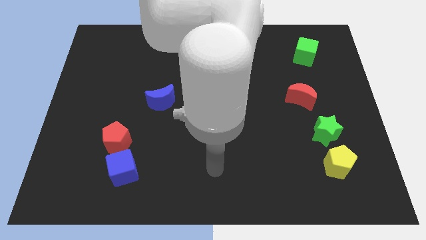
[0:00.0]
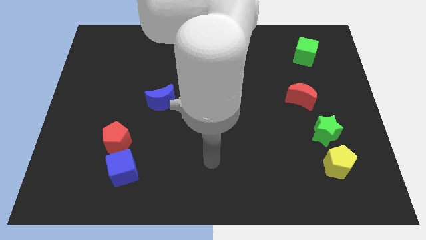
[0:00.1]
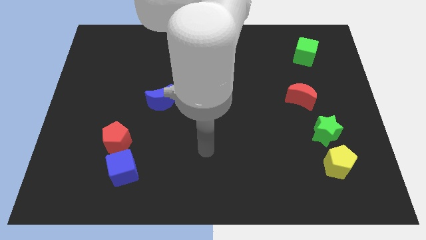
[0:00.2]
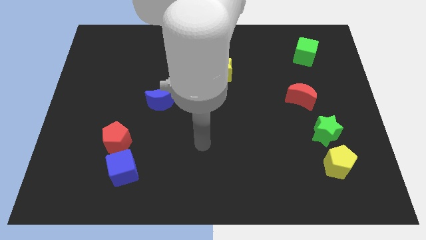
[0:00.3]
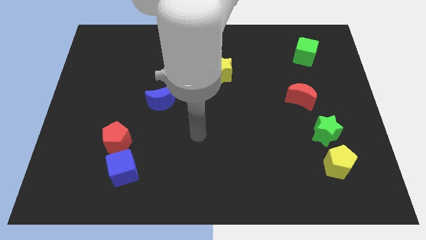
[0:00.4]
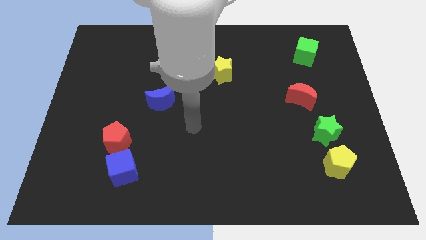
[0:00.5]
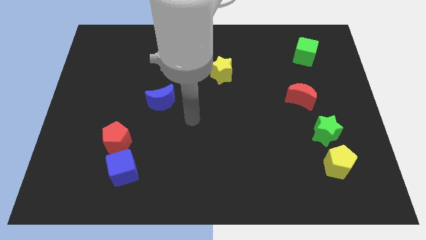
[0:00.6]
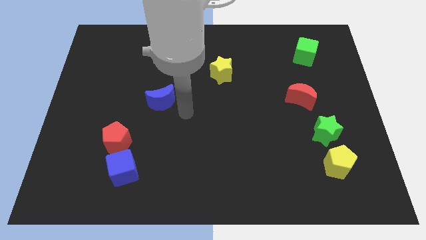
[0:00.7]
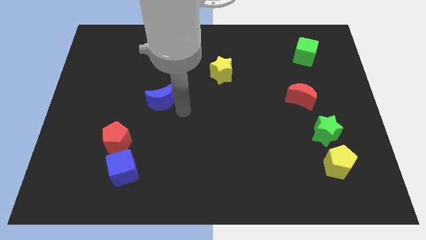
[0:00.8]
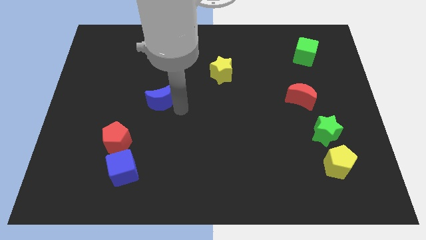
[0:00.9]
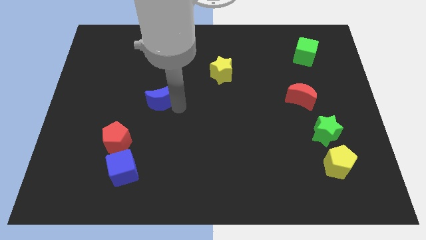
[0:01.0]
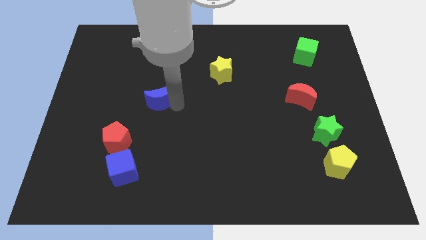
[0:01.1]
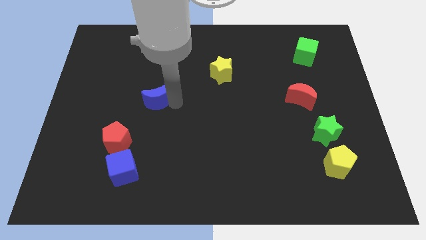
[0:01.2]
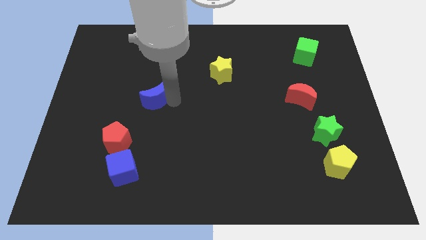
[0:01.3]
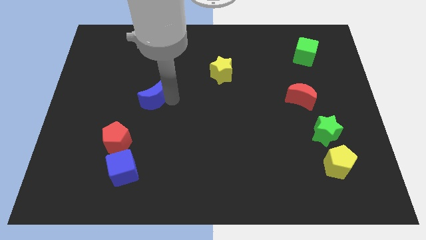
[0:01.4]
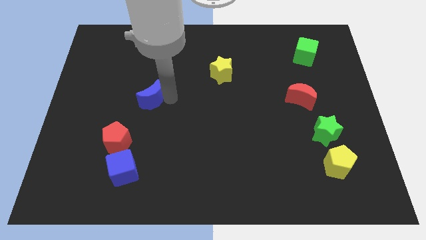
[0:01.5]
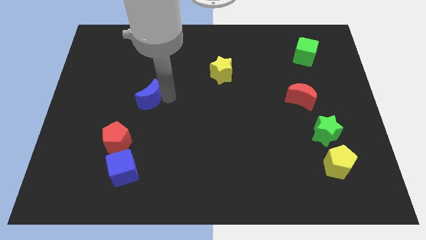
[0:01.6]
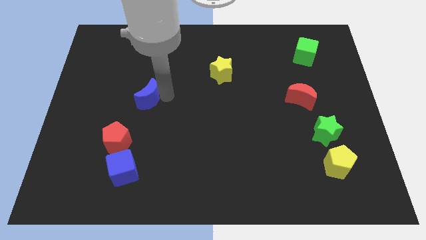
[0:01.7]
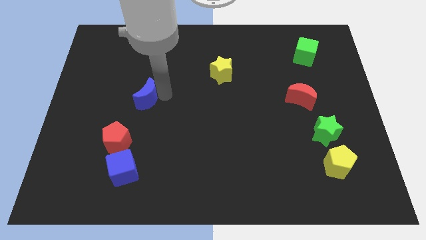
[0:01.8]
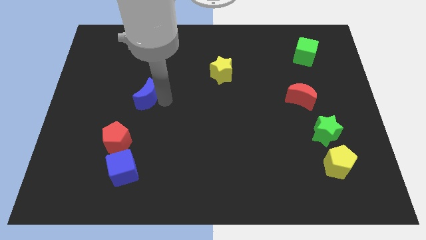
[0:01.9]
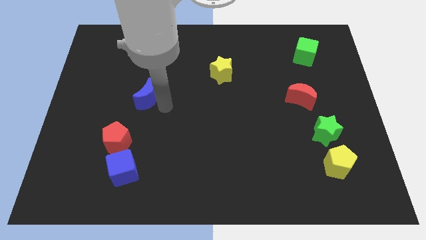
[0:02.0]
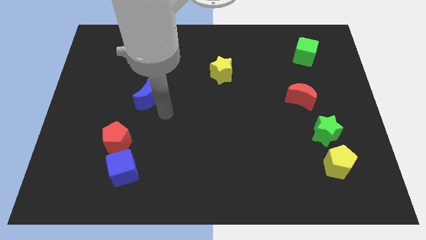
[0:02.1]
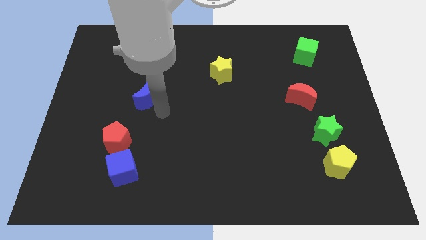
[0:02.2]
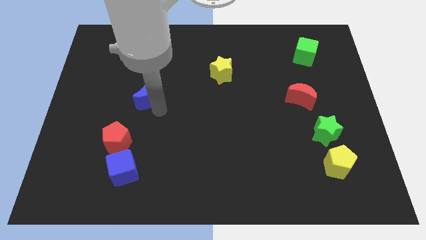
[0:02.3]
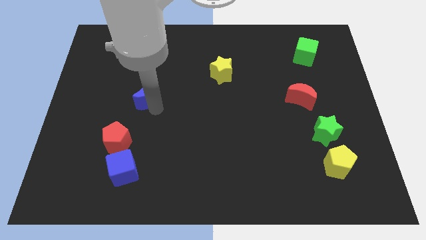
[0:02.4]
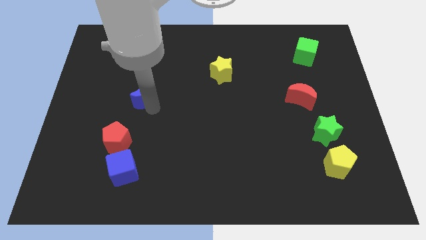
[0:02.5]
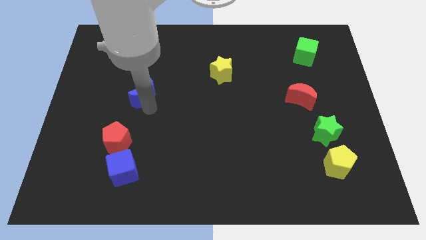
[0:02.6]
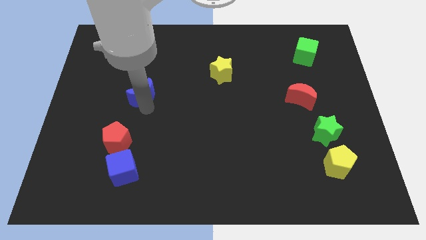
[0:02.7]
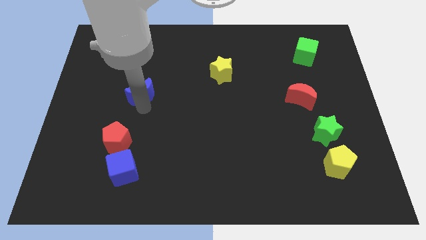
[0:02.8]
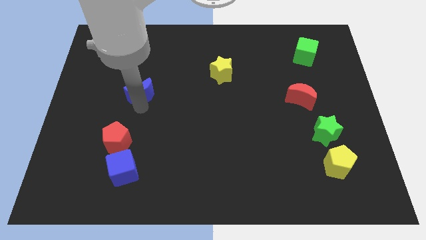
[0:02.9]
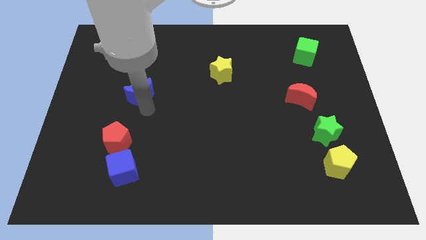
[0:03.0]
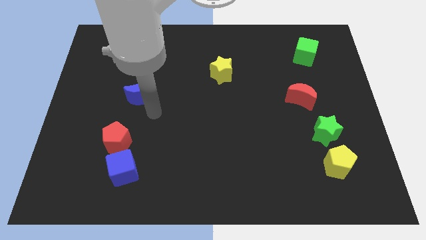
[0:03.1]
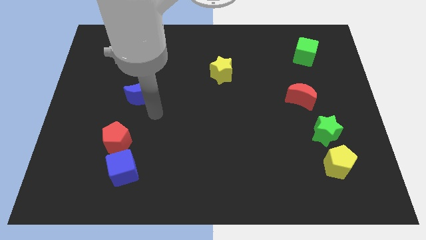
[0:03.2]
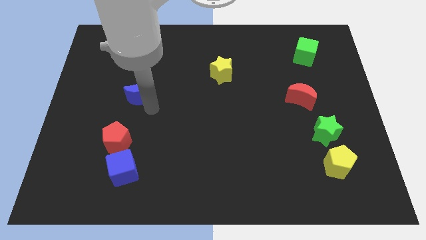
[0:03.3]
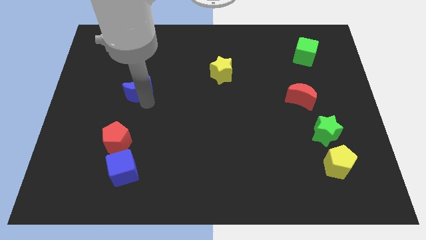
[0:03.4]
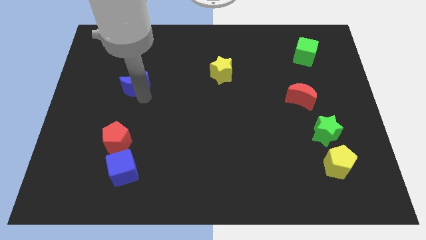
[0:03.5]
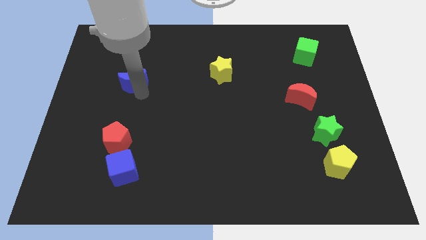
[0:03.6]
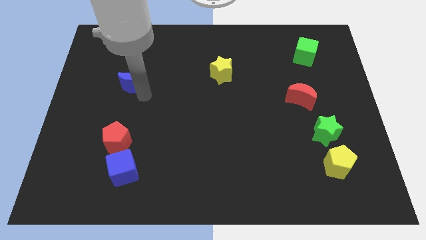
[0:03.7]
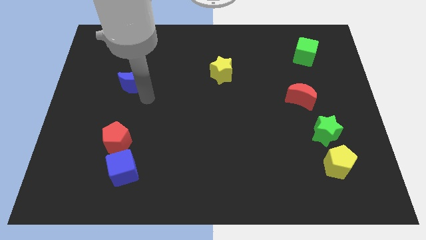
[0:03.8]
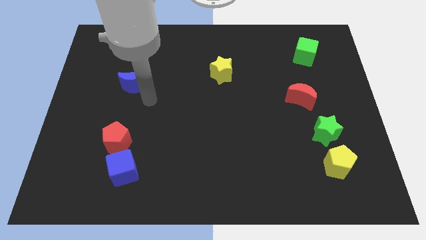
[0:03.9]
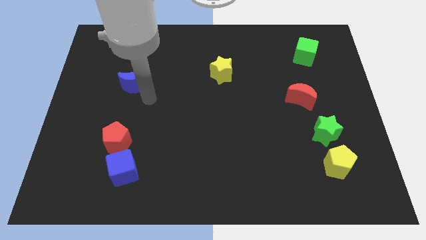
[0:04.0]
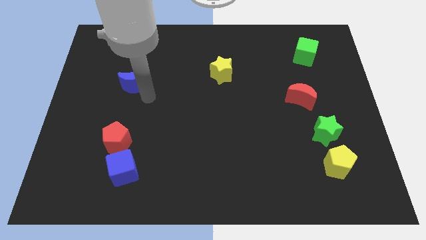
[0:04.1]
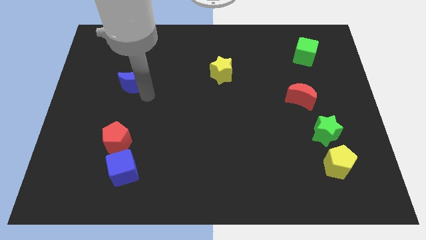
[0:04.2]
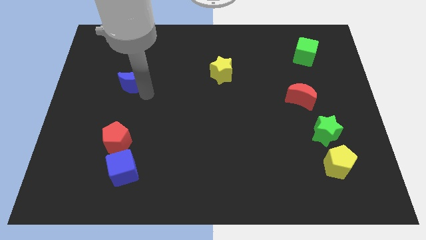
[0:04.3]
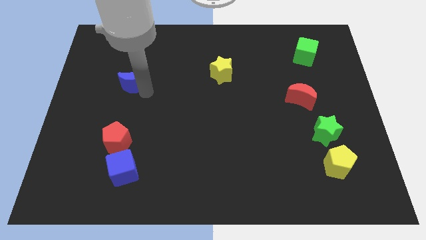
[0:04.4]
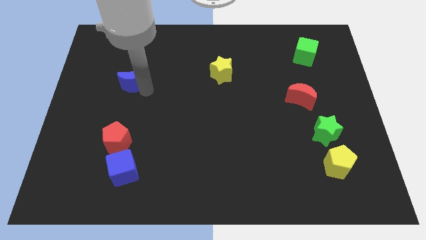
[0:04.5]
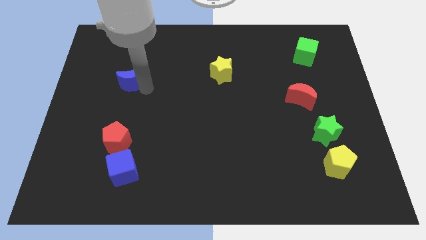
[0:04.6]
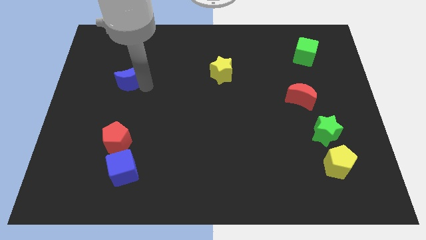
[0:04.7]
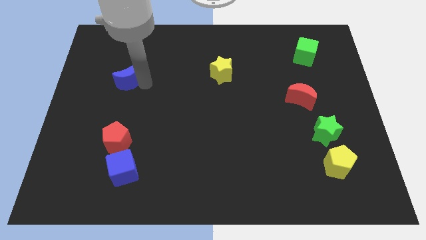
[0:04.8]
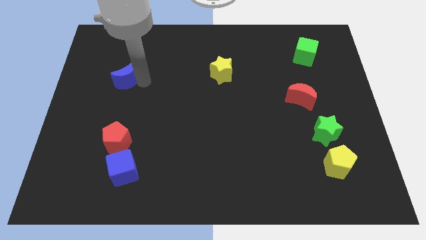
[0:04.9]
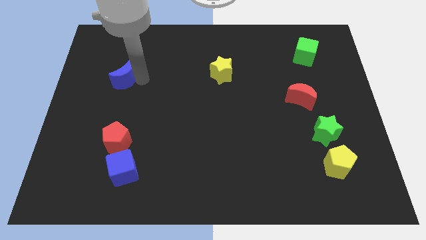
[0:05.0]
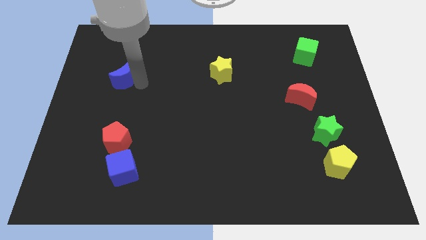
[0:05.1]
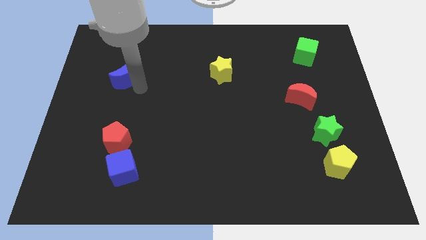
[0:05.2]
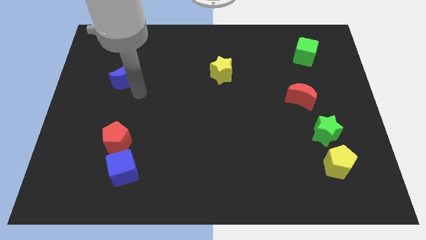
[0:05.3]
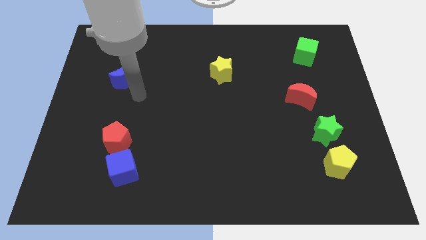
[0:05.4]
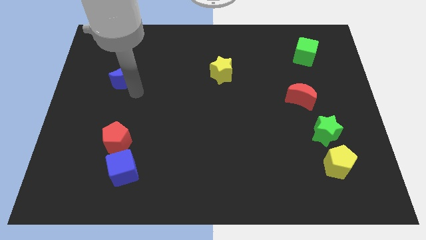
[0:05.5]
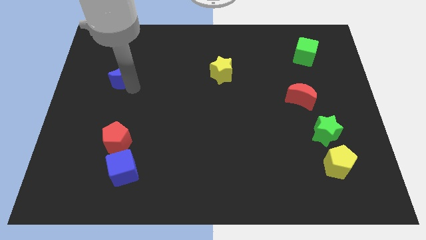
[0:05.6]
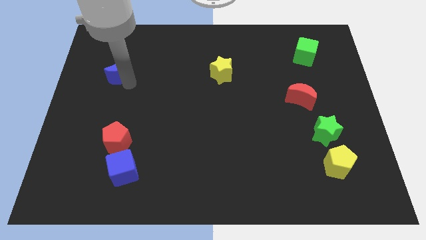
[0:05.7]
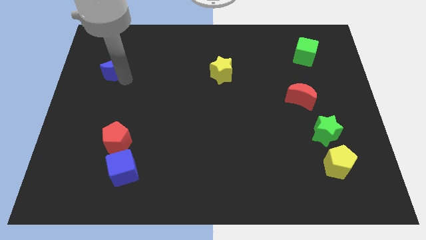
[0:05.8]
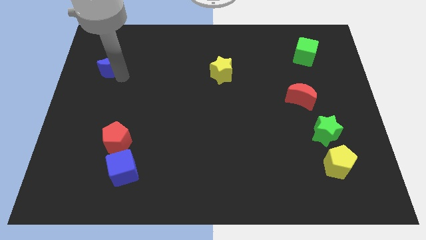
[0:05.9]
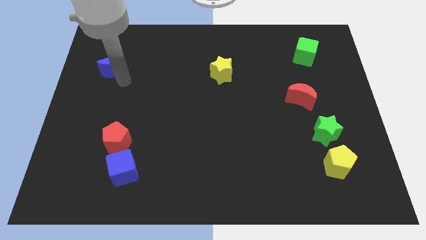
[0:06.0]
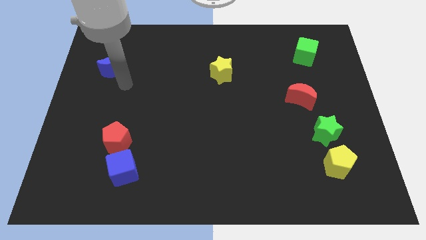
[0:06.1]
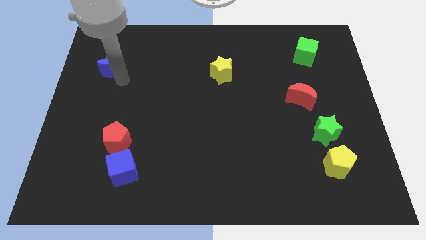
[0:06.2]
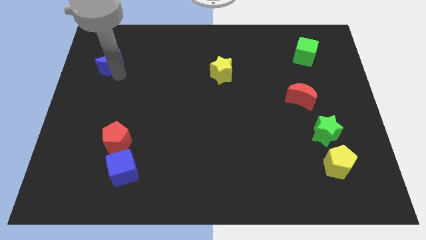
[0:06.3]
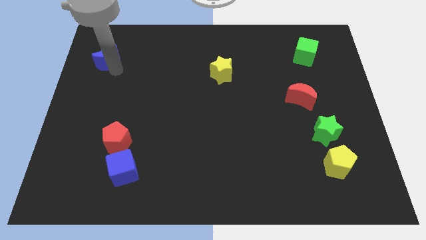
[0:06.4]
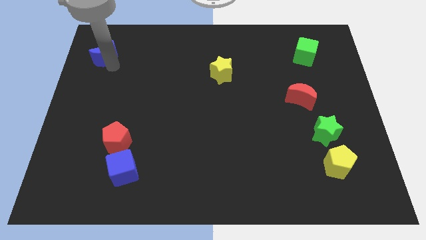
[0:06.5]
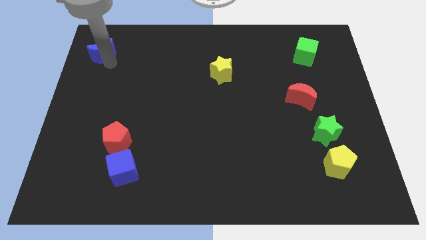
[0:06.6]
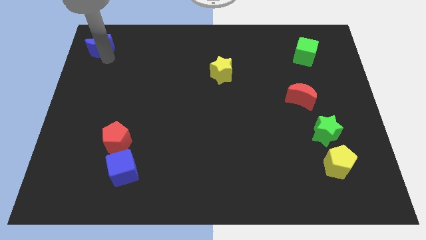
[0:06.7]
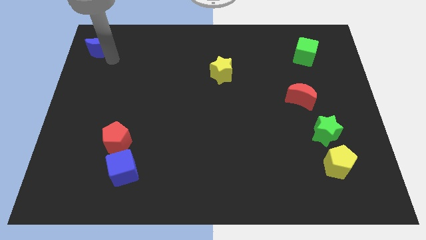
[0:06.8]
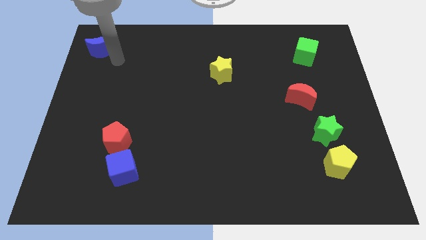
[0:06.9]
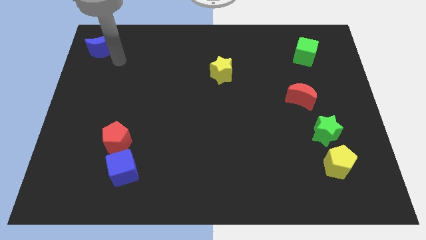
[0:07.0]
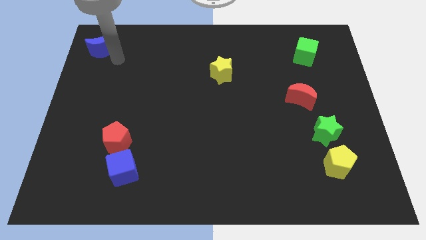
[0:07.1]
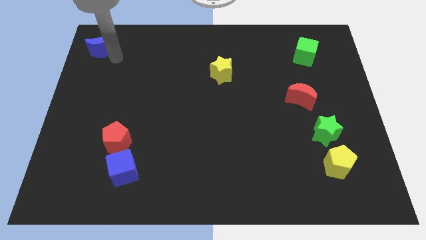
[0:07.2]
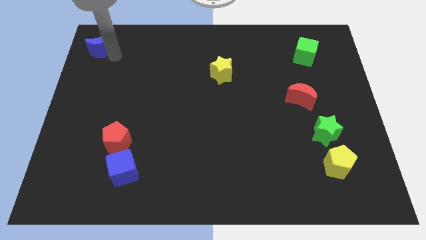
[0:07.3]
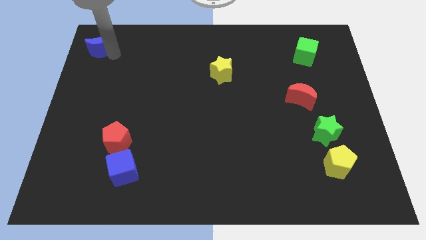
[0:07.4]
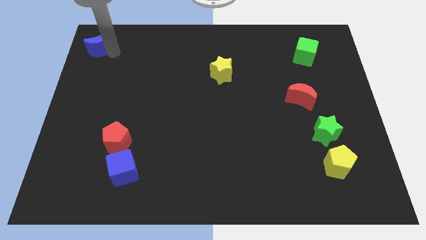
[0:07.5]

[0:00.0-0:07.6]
put the blue moon to the upper left corner
